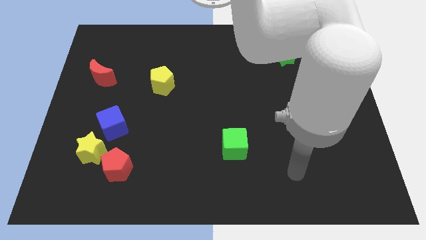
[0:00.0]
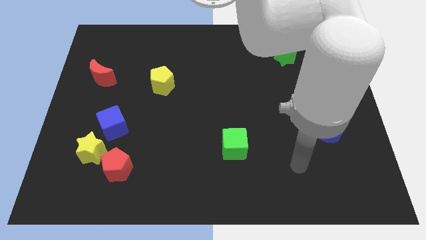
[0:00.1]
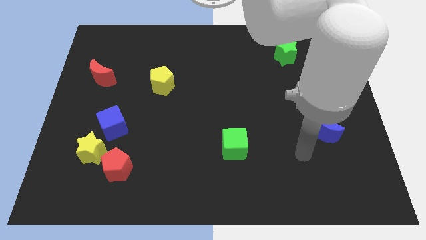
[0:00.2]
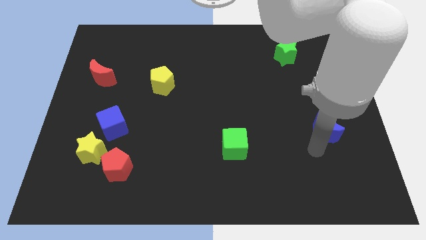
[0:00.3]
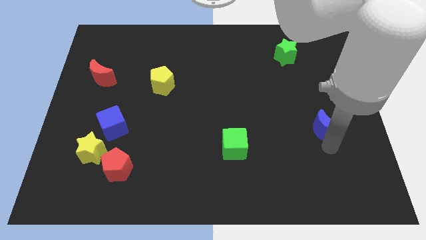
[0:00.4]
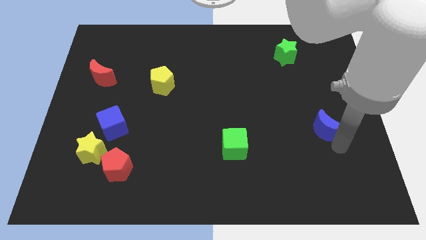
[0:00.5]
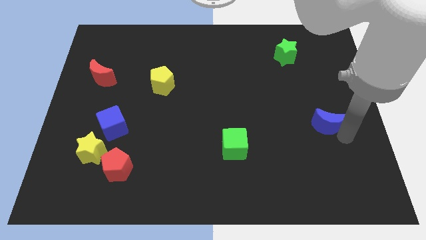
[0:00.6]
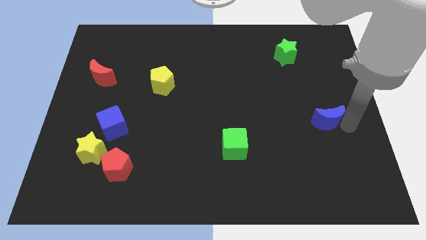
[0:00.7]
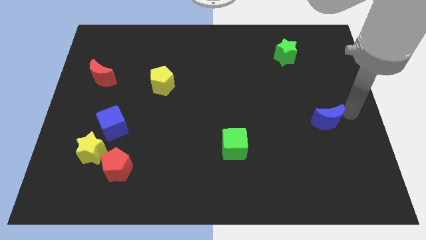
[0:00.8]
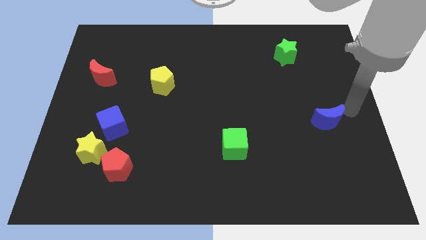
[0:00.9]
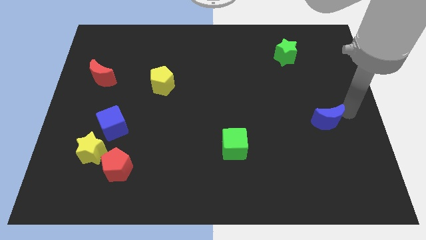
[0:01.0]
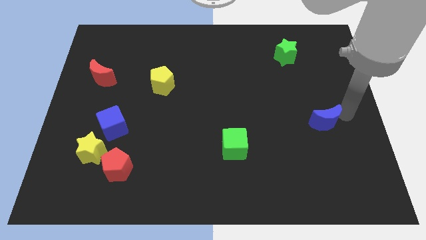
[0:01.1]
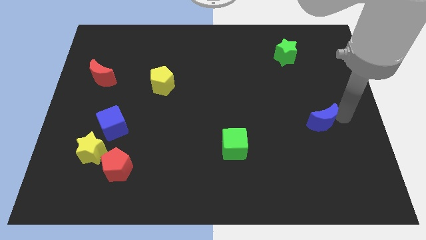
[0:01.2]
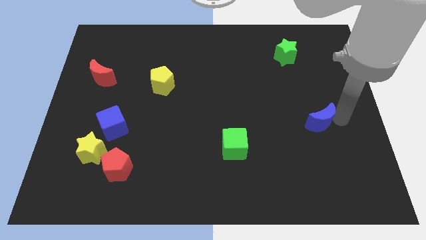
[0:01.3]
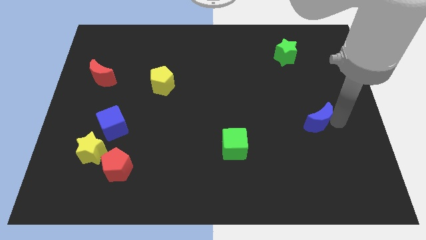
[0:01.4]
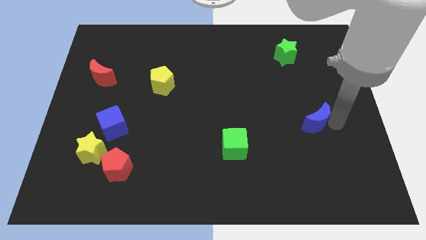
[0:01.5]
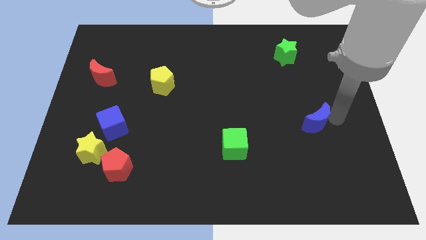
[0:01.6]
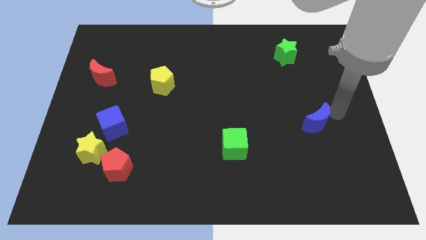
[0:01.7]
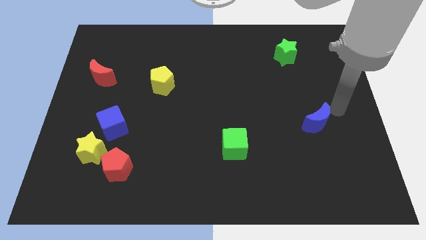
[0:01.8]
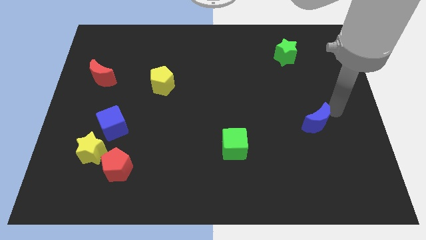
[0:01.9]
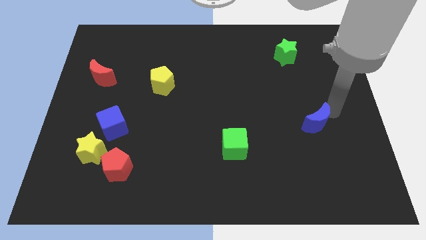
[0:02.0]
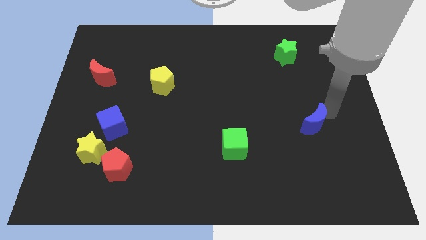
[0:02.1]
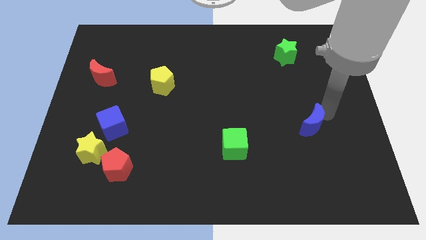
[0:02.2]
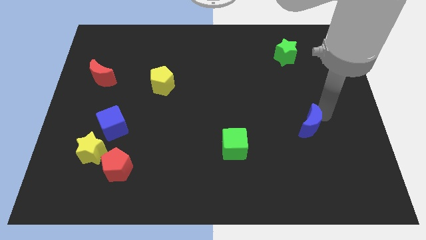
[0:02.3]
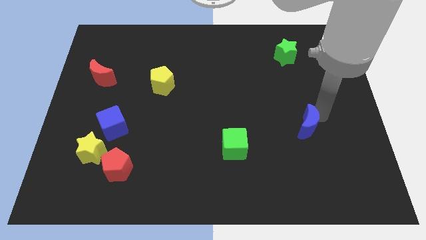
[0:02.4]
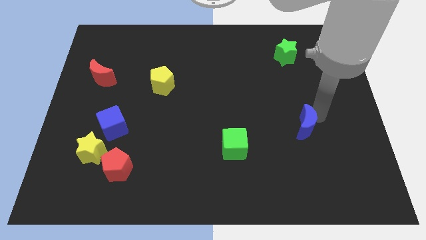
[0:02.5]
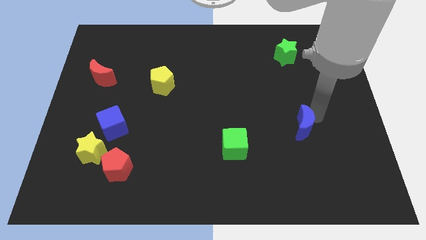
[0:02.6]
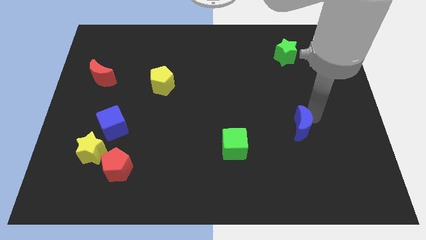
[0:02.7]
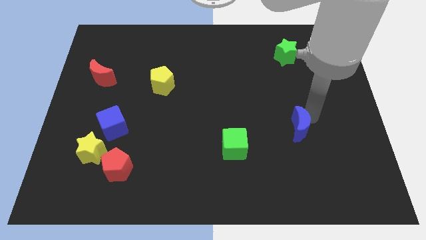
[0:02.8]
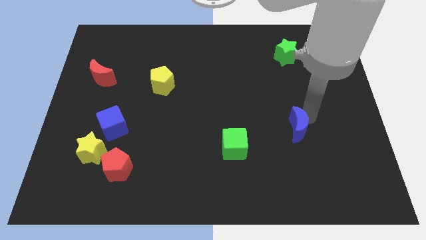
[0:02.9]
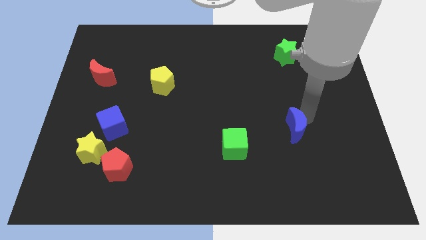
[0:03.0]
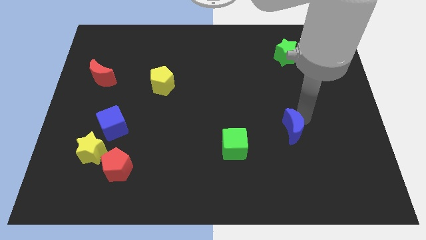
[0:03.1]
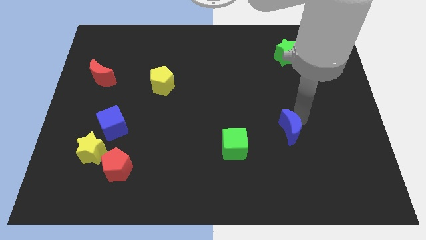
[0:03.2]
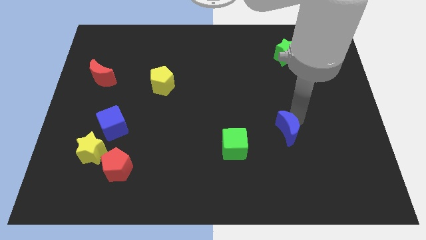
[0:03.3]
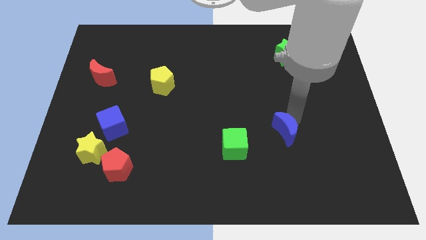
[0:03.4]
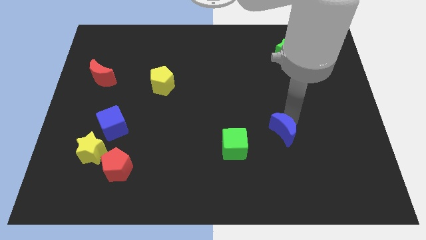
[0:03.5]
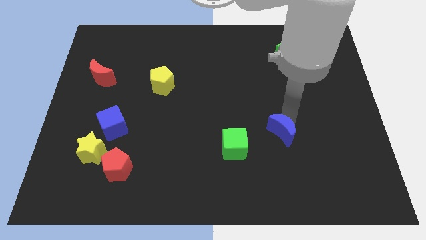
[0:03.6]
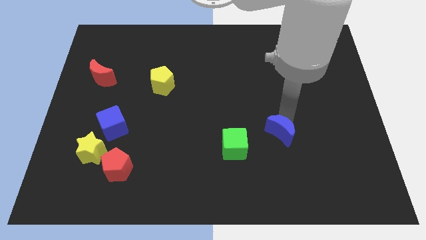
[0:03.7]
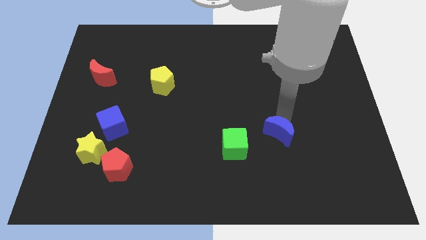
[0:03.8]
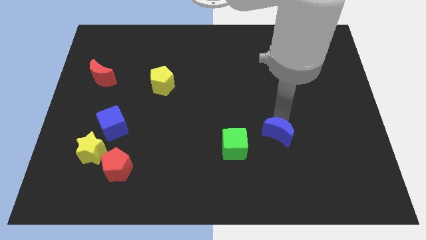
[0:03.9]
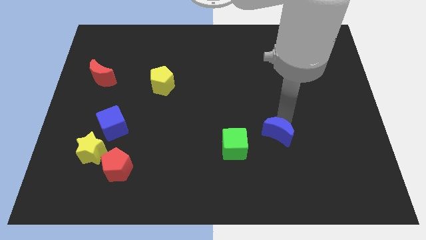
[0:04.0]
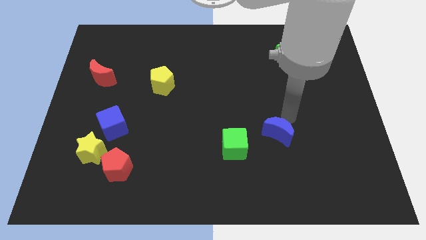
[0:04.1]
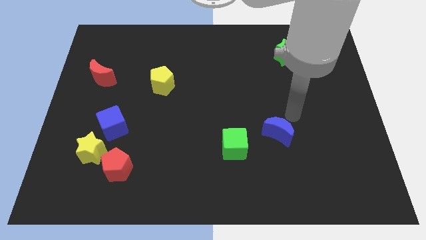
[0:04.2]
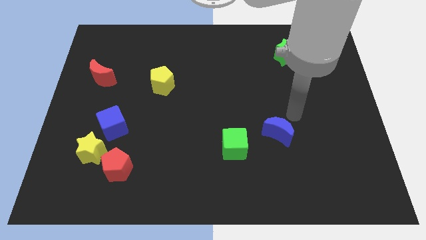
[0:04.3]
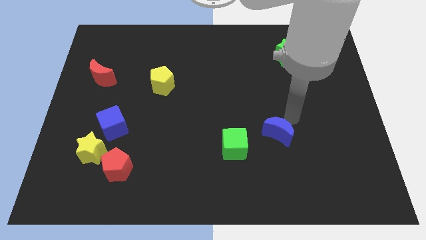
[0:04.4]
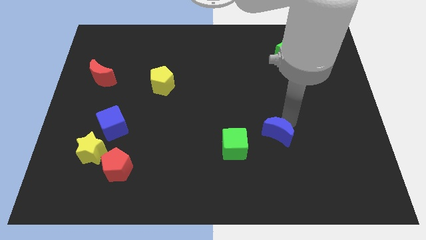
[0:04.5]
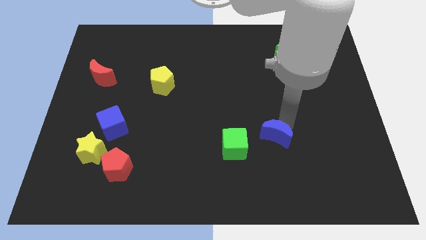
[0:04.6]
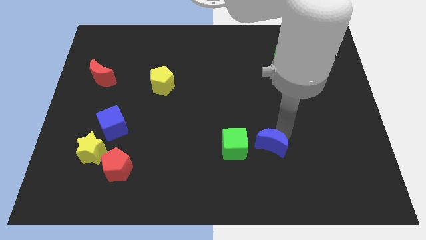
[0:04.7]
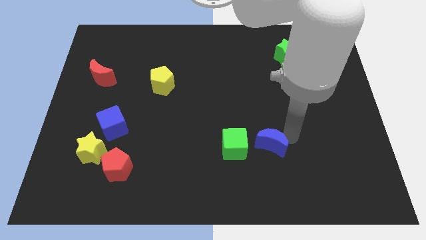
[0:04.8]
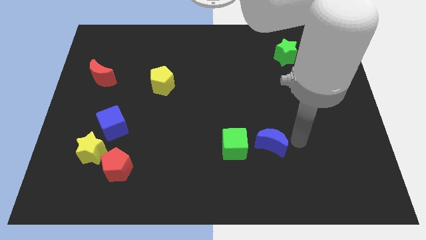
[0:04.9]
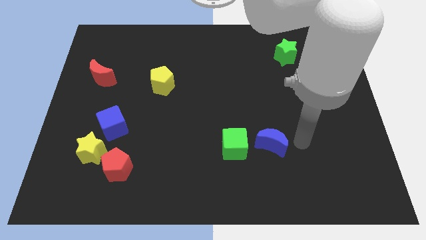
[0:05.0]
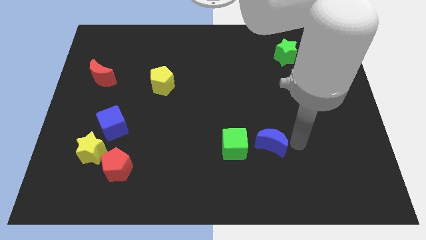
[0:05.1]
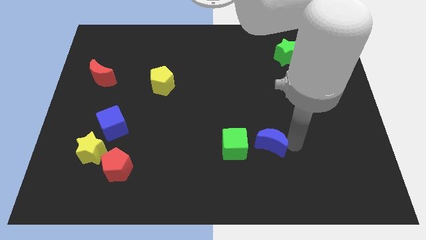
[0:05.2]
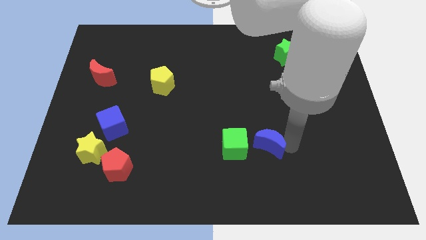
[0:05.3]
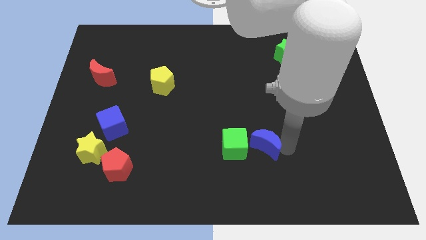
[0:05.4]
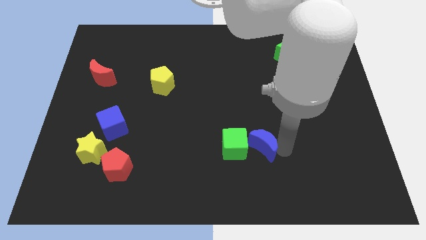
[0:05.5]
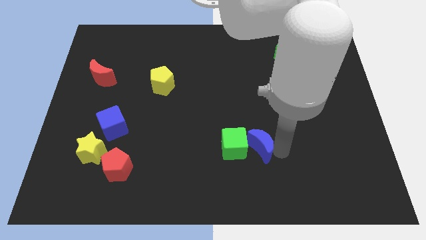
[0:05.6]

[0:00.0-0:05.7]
slide the blue moon to the green cube

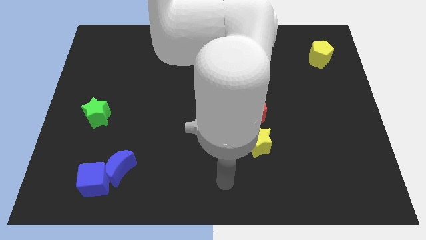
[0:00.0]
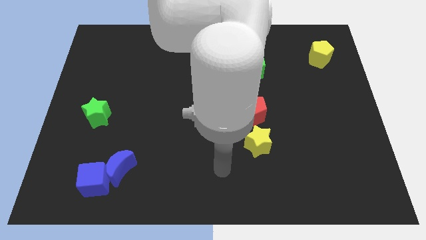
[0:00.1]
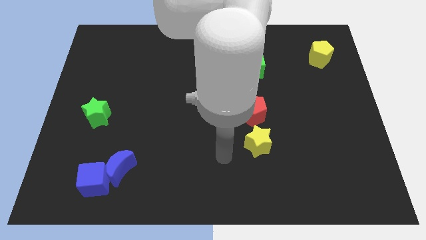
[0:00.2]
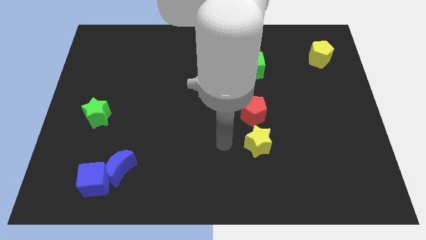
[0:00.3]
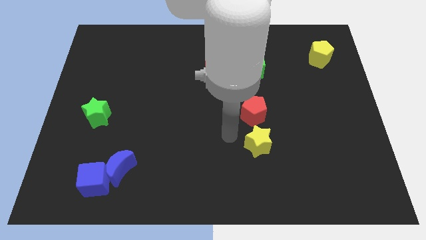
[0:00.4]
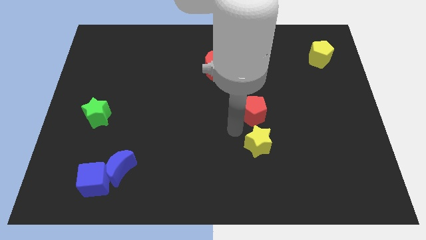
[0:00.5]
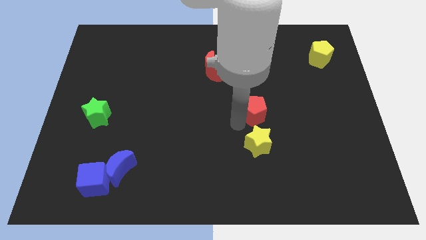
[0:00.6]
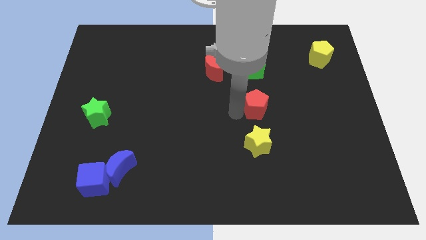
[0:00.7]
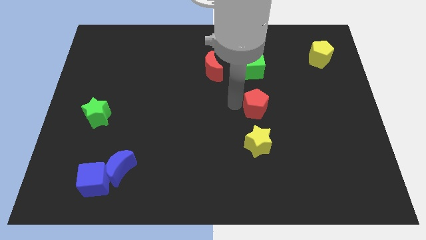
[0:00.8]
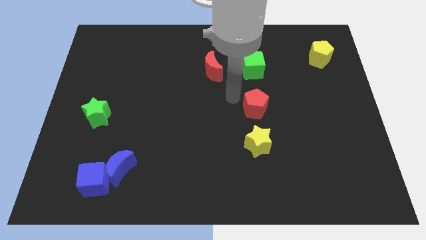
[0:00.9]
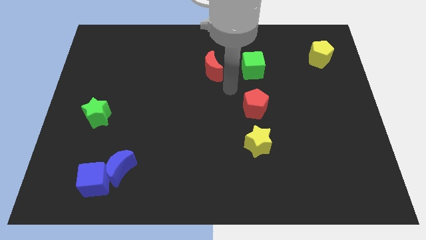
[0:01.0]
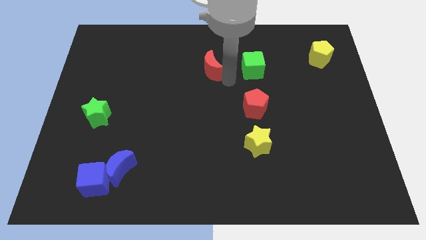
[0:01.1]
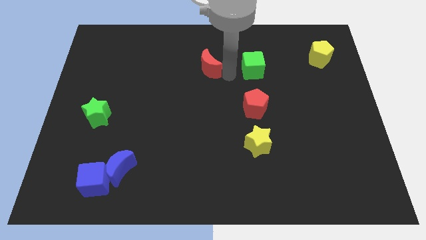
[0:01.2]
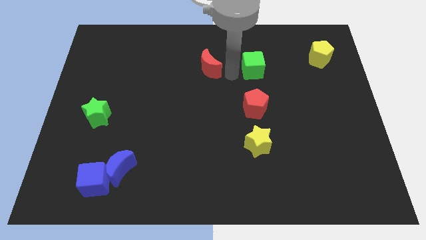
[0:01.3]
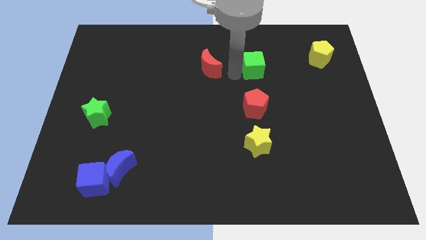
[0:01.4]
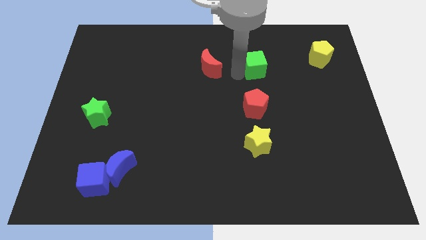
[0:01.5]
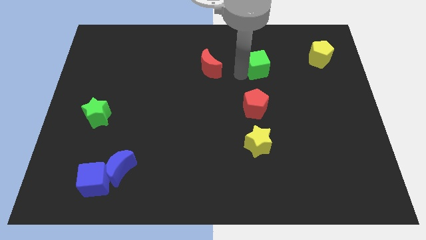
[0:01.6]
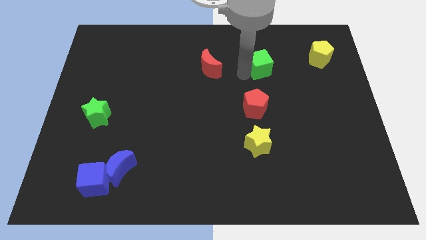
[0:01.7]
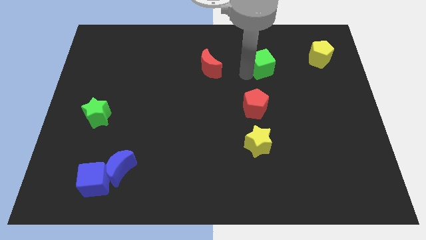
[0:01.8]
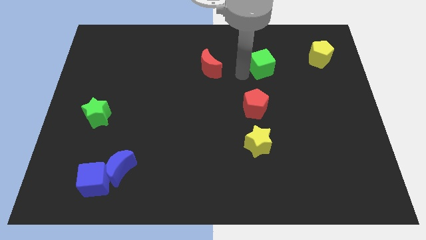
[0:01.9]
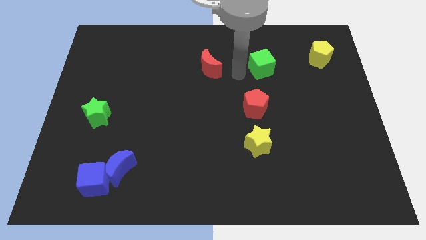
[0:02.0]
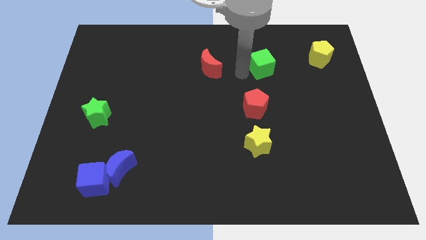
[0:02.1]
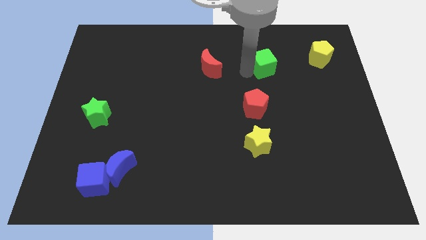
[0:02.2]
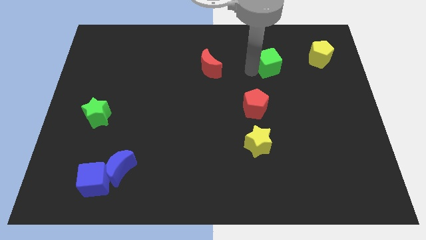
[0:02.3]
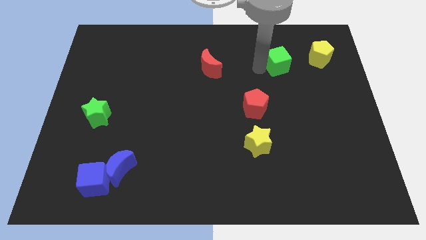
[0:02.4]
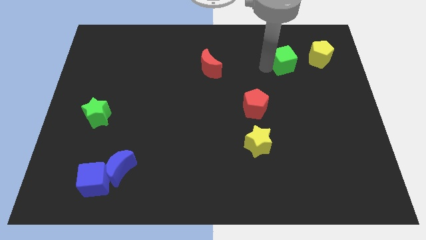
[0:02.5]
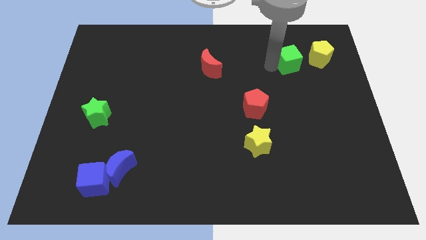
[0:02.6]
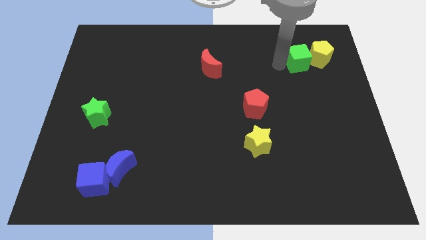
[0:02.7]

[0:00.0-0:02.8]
put the green cube next to the yellow pentagon
